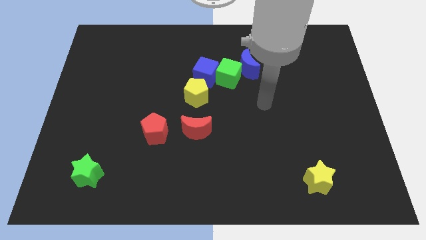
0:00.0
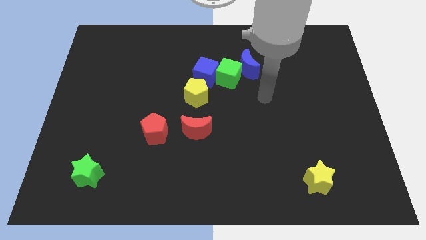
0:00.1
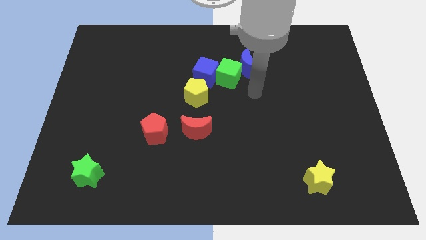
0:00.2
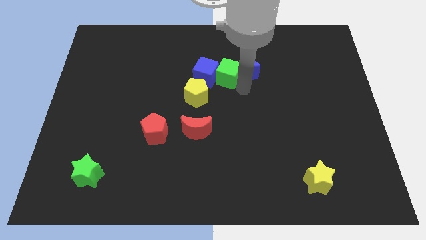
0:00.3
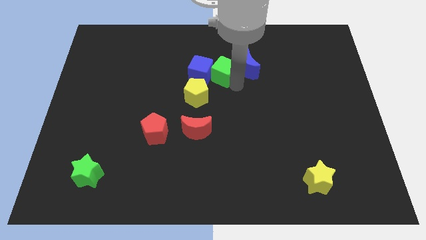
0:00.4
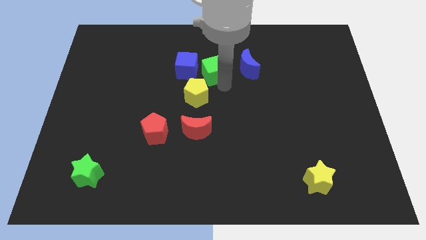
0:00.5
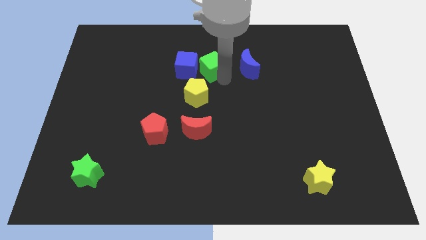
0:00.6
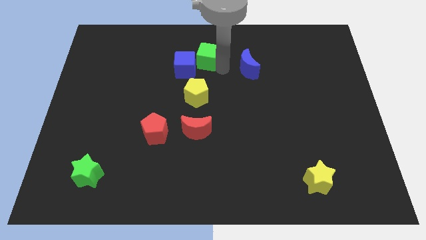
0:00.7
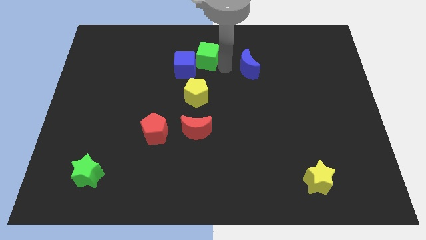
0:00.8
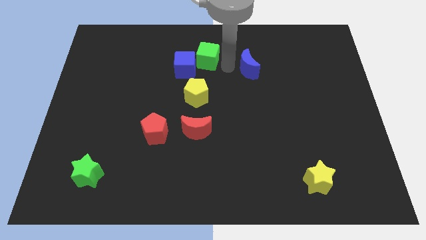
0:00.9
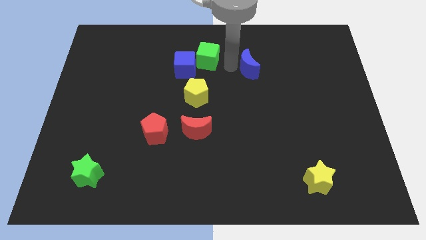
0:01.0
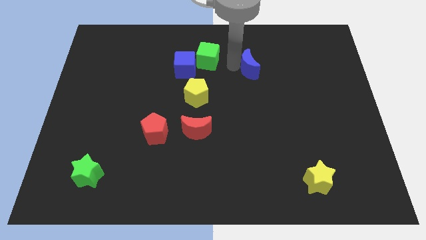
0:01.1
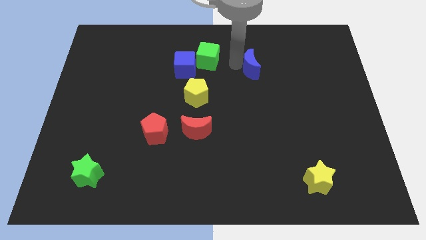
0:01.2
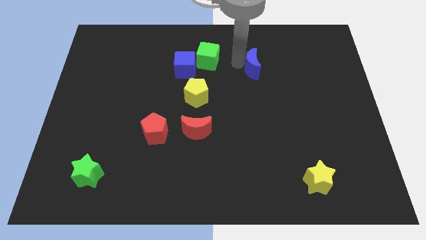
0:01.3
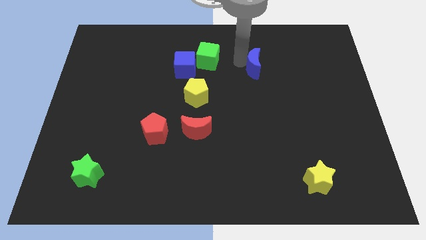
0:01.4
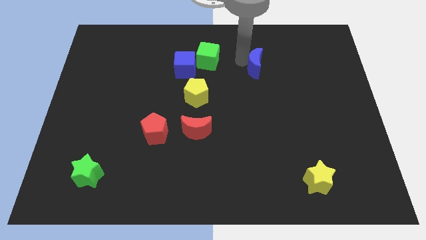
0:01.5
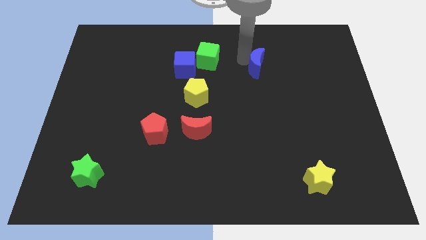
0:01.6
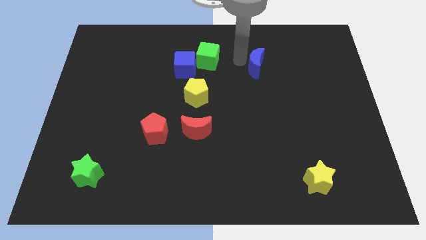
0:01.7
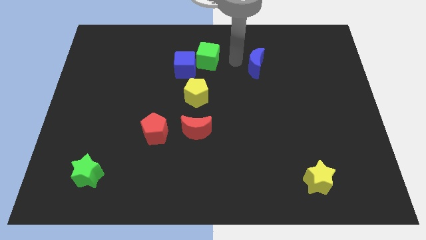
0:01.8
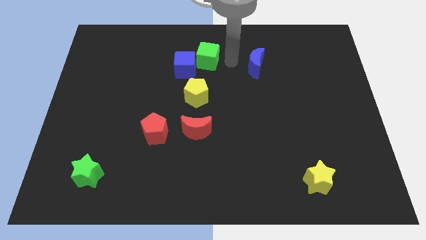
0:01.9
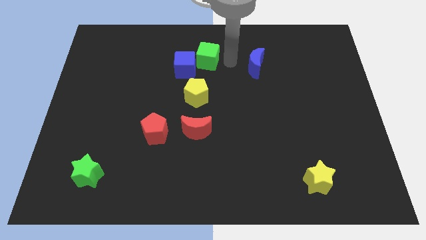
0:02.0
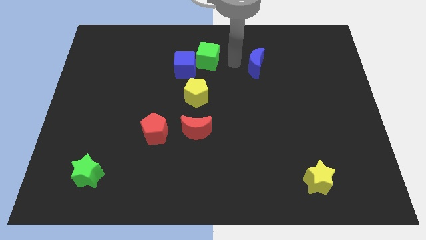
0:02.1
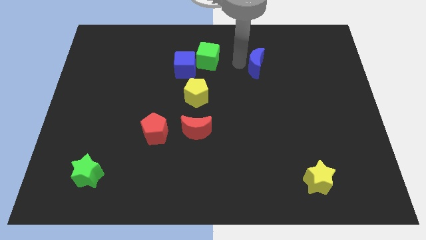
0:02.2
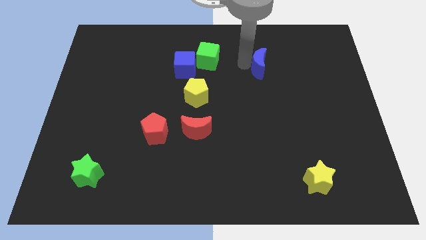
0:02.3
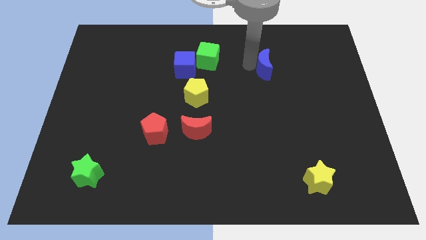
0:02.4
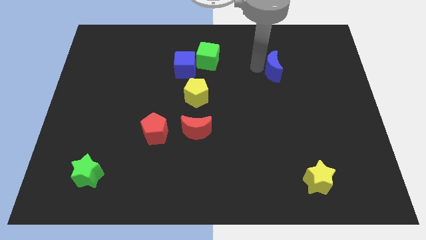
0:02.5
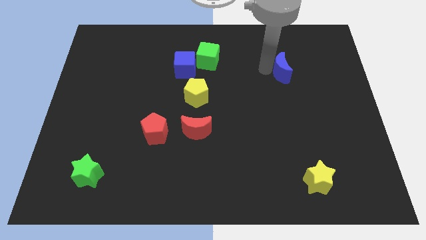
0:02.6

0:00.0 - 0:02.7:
move the blue moon slightly right

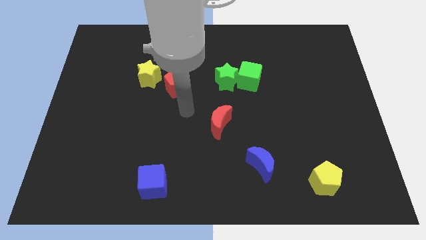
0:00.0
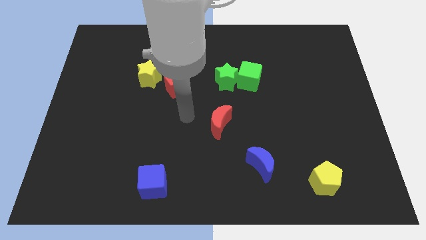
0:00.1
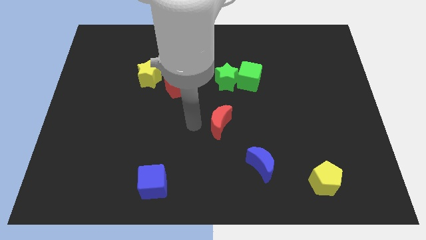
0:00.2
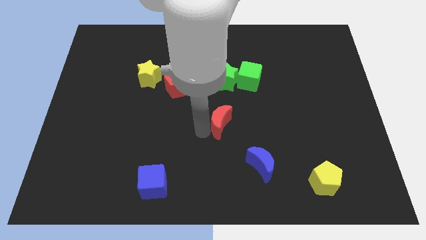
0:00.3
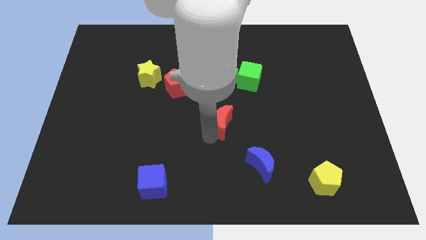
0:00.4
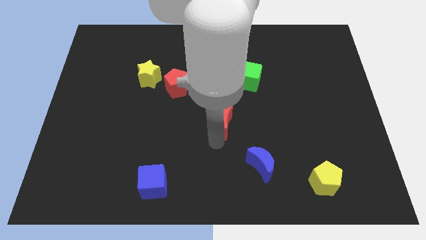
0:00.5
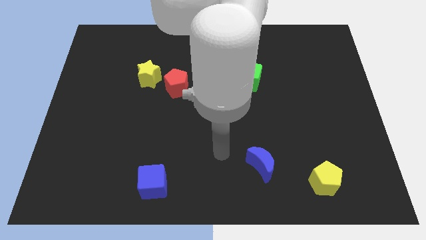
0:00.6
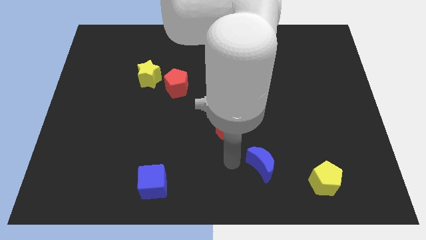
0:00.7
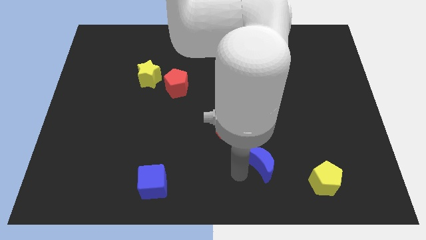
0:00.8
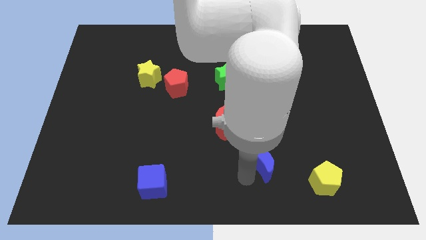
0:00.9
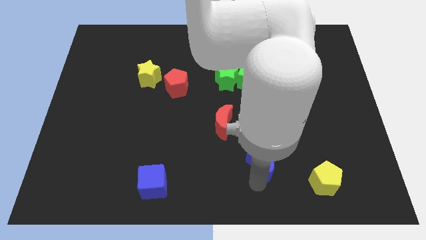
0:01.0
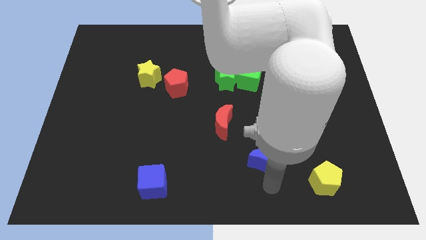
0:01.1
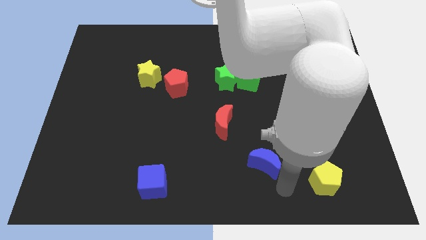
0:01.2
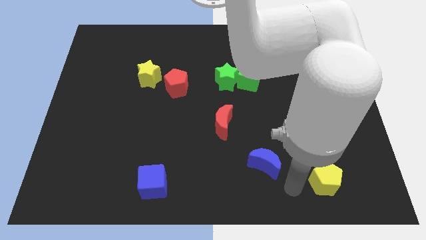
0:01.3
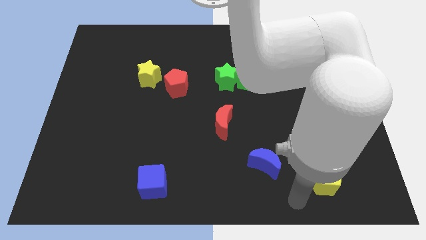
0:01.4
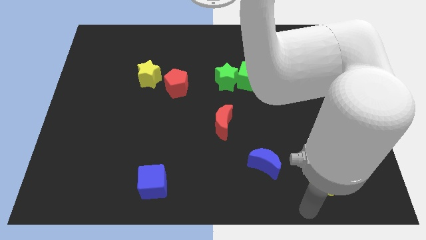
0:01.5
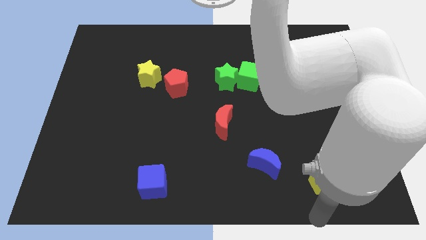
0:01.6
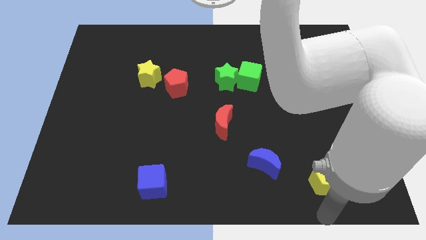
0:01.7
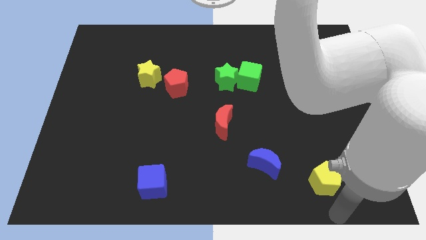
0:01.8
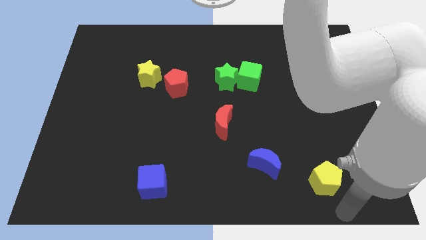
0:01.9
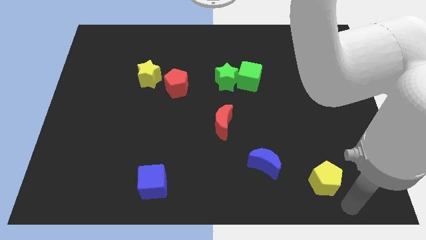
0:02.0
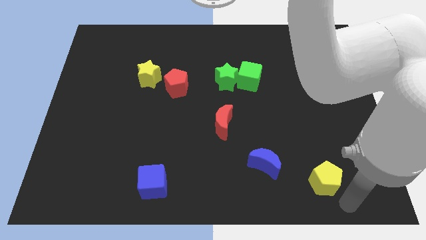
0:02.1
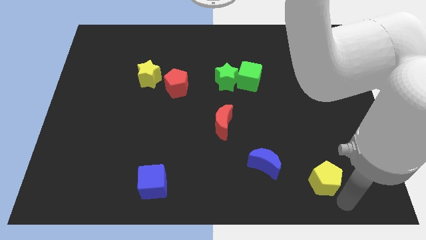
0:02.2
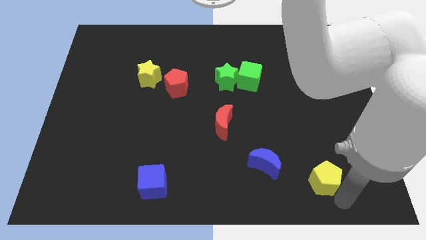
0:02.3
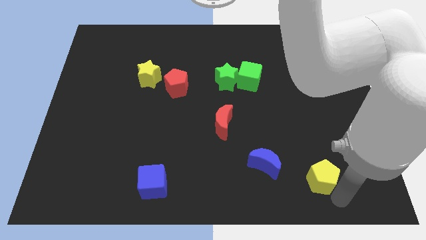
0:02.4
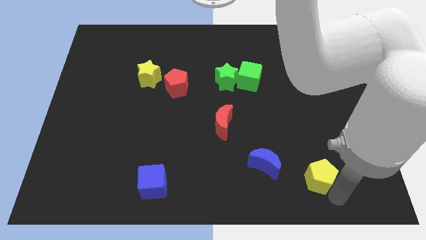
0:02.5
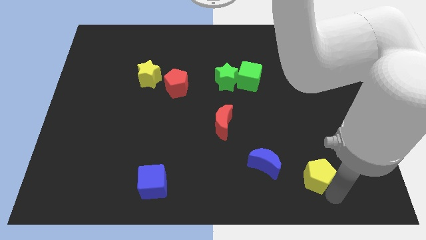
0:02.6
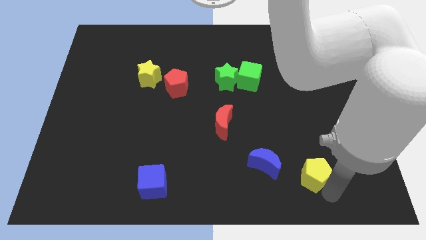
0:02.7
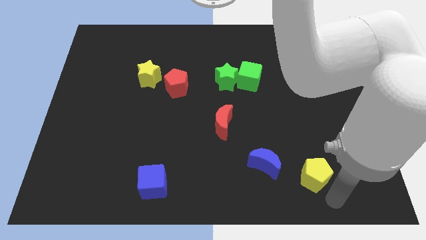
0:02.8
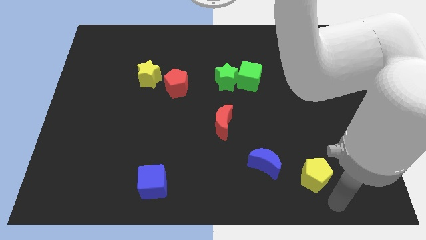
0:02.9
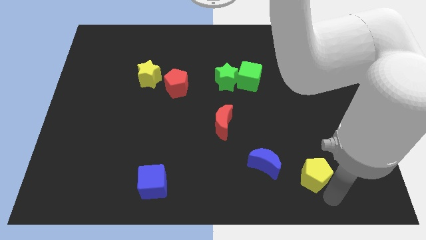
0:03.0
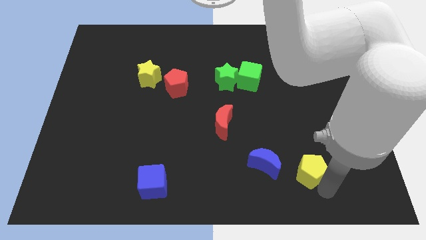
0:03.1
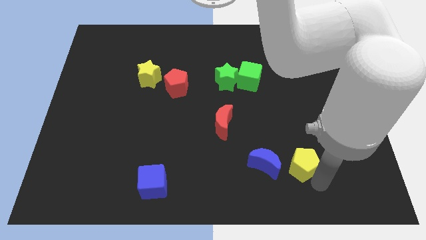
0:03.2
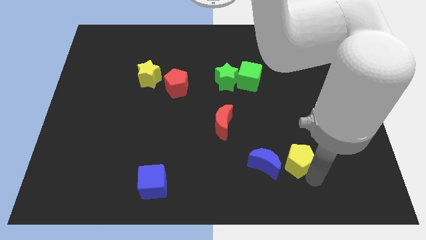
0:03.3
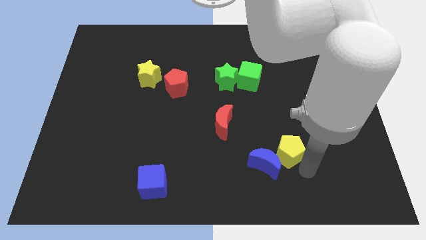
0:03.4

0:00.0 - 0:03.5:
slightly move the yellow pentagon diagonally upwards and to the left

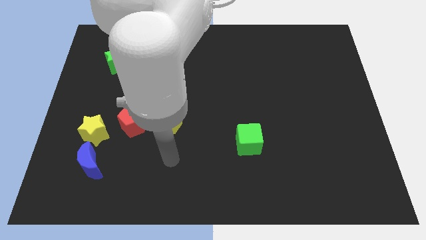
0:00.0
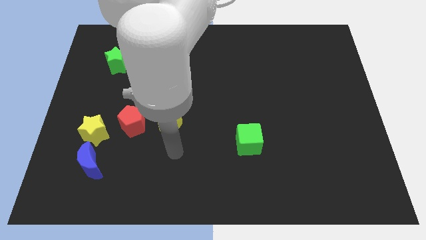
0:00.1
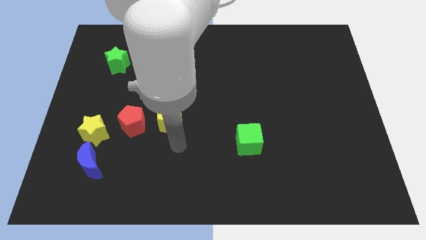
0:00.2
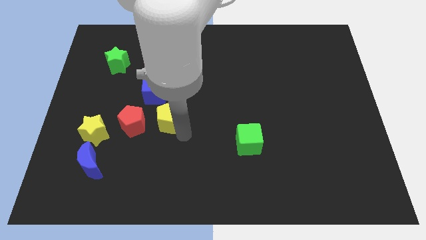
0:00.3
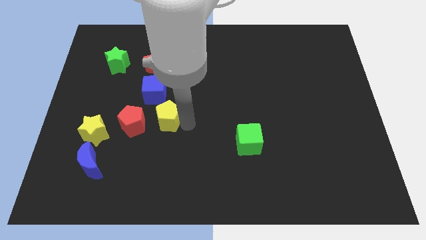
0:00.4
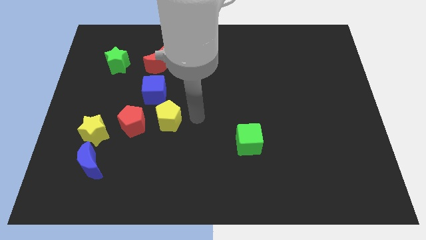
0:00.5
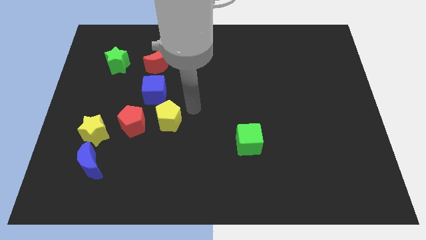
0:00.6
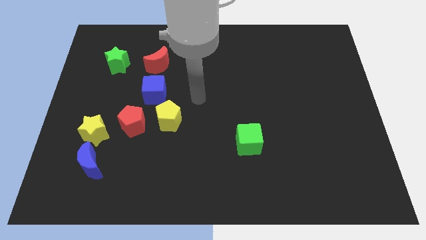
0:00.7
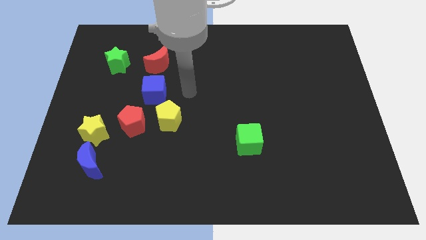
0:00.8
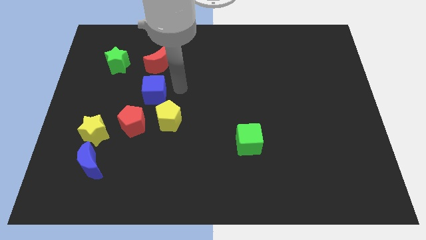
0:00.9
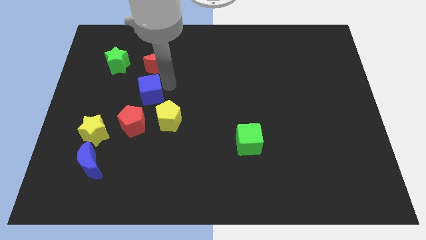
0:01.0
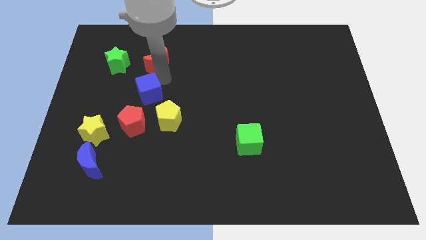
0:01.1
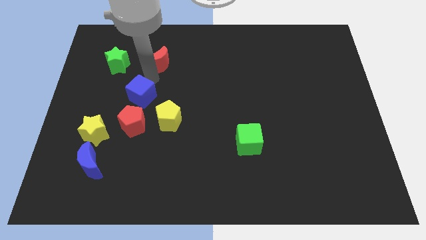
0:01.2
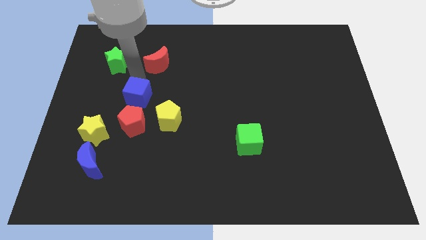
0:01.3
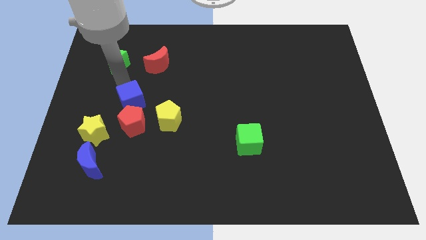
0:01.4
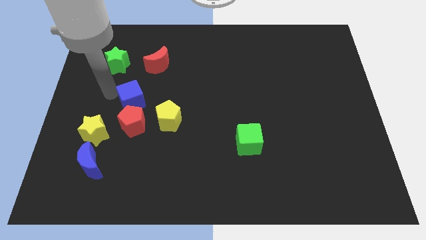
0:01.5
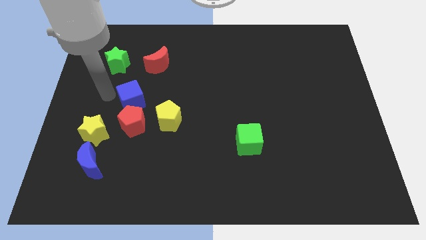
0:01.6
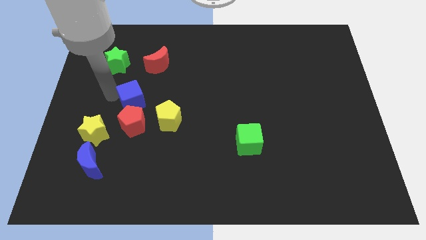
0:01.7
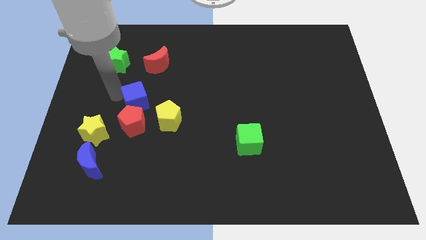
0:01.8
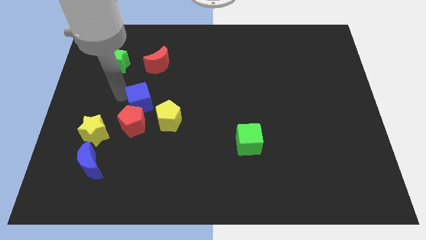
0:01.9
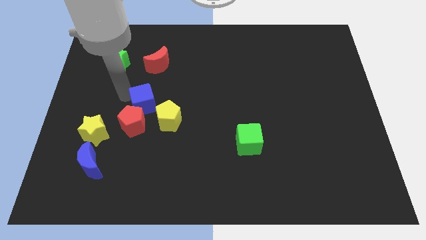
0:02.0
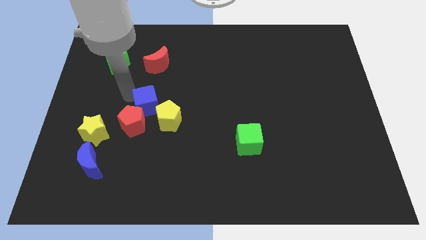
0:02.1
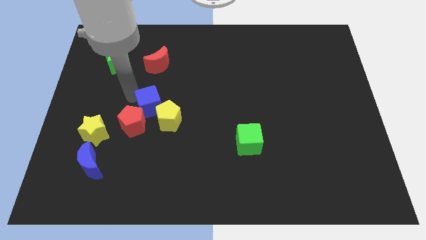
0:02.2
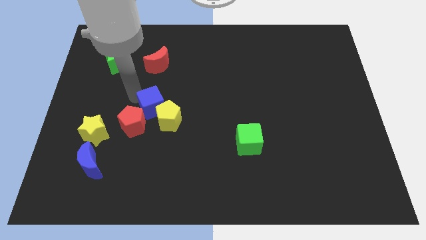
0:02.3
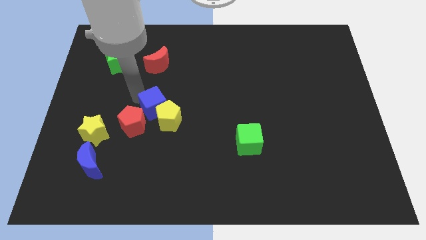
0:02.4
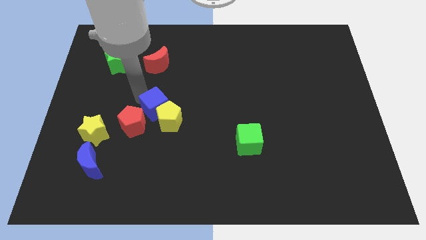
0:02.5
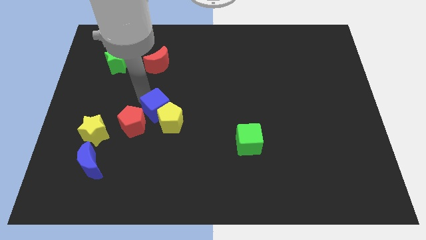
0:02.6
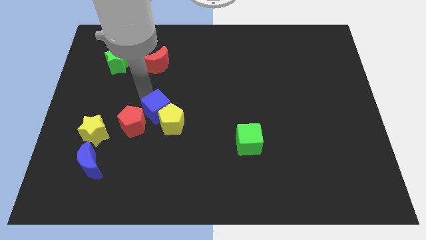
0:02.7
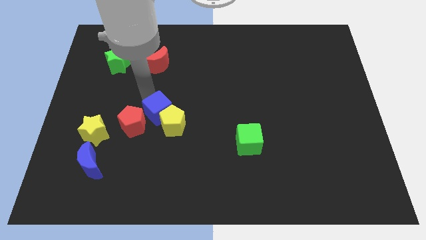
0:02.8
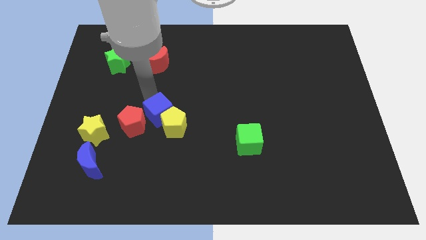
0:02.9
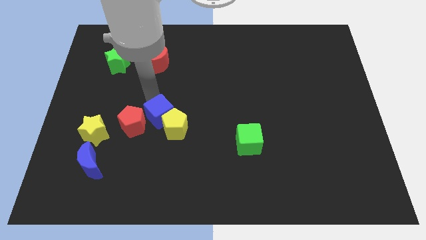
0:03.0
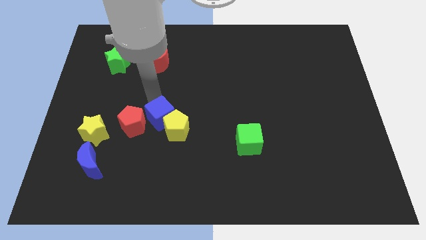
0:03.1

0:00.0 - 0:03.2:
slightly push the blue cube down
